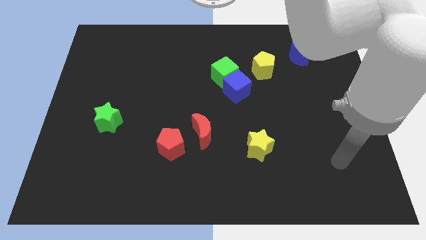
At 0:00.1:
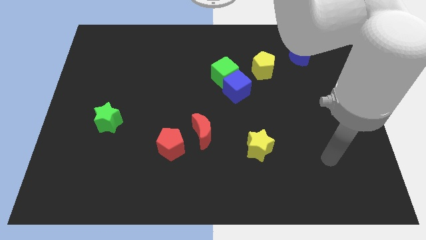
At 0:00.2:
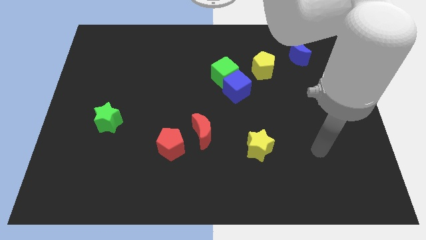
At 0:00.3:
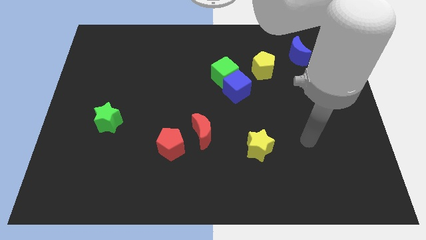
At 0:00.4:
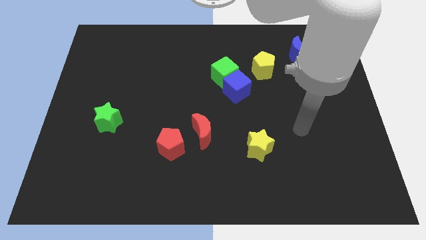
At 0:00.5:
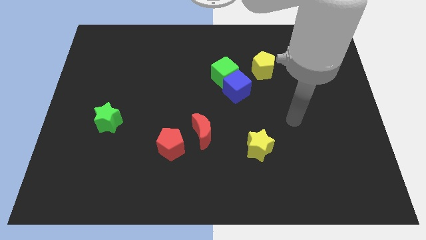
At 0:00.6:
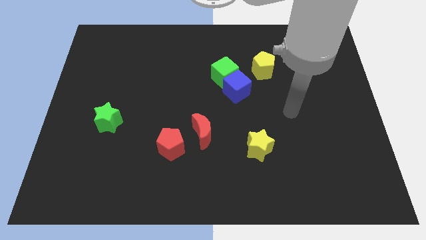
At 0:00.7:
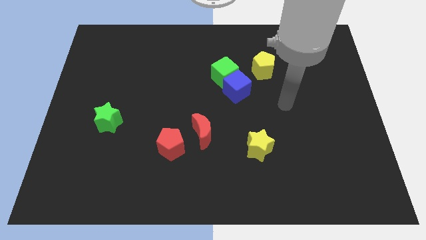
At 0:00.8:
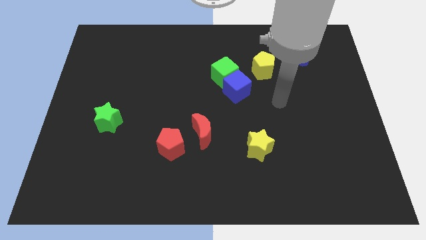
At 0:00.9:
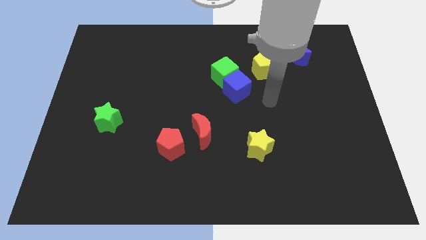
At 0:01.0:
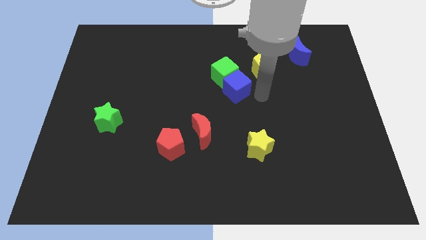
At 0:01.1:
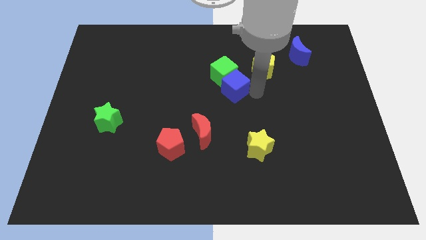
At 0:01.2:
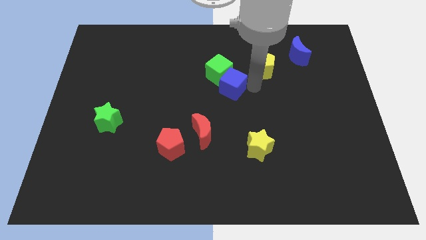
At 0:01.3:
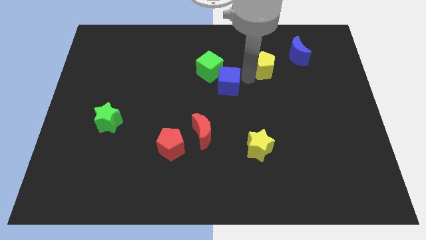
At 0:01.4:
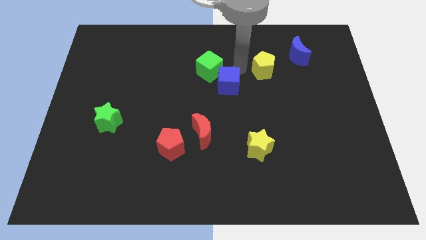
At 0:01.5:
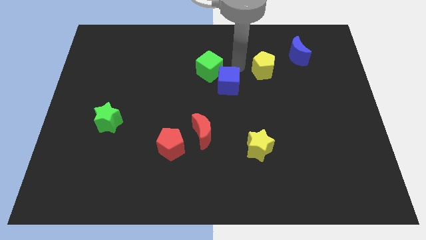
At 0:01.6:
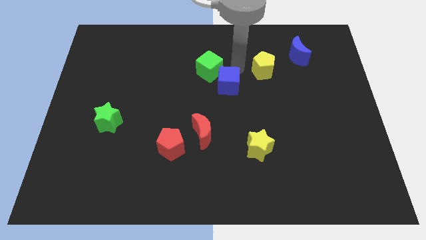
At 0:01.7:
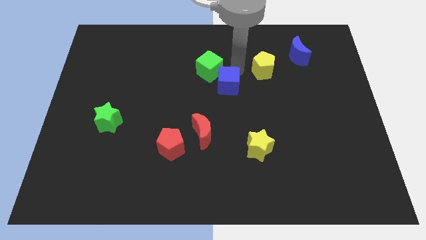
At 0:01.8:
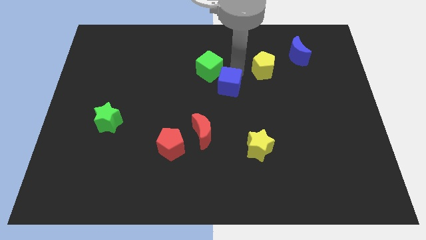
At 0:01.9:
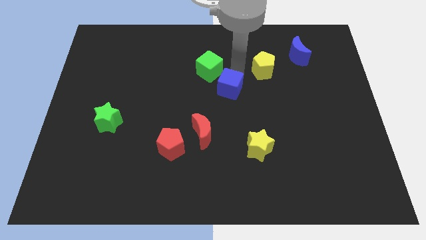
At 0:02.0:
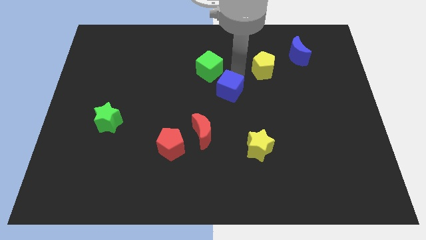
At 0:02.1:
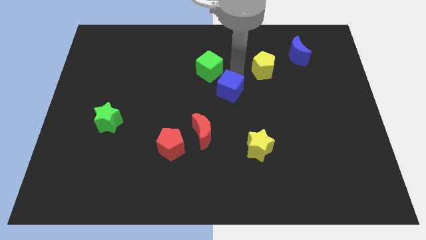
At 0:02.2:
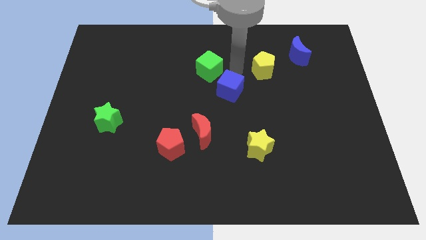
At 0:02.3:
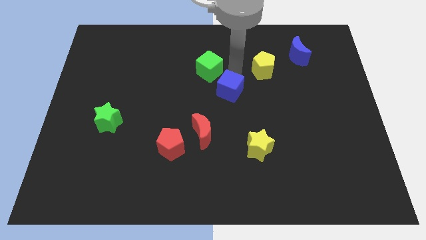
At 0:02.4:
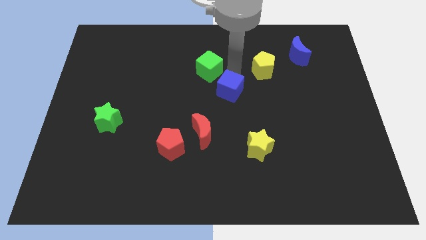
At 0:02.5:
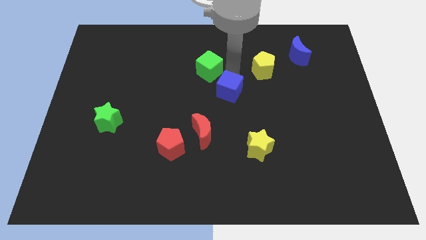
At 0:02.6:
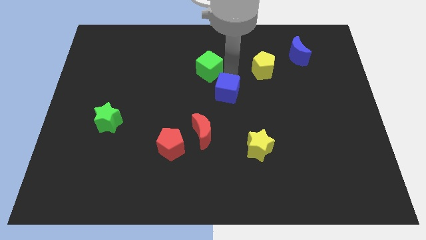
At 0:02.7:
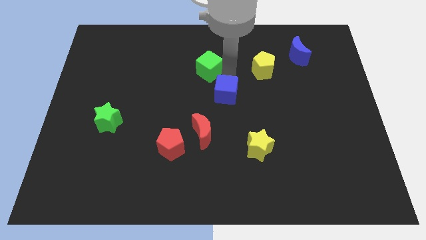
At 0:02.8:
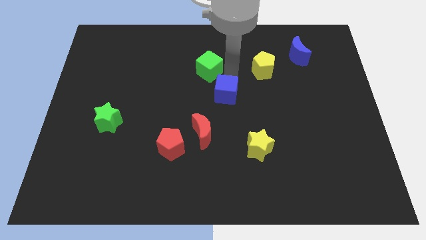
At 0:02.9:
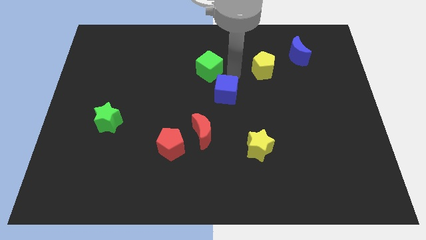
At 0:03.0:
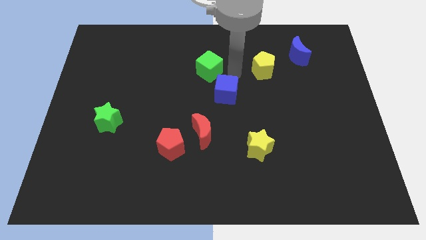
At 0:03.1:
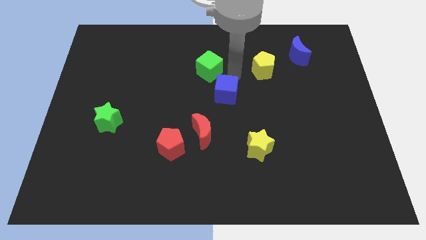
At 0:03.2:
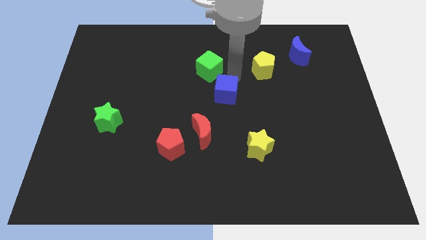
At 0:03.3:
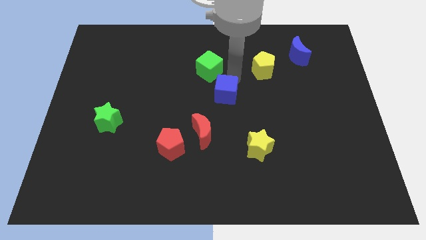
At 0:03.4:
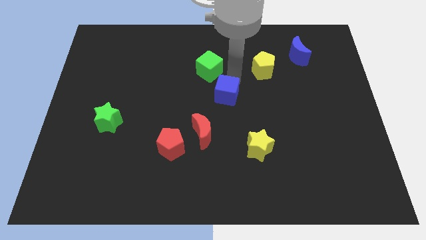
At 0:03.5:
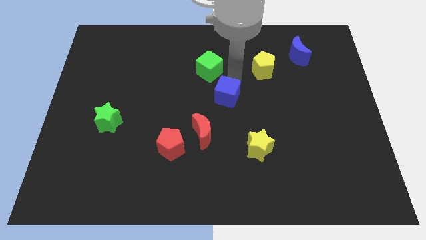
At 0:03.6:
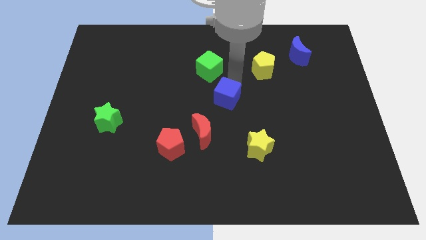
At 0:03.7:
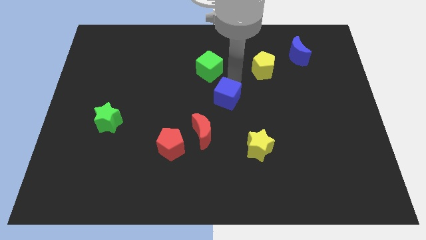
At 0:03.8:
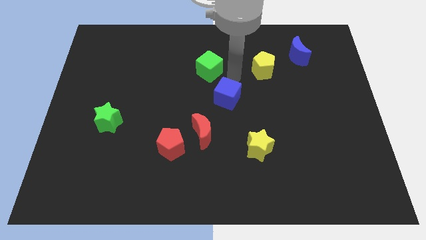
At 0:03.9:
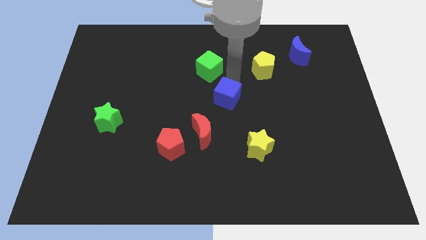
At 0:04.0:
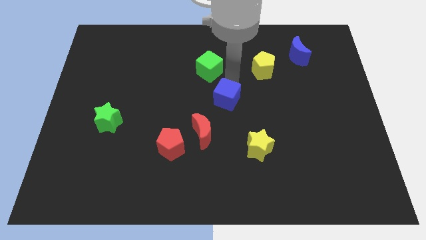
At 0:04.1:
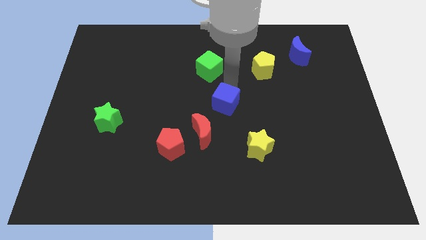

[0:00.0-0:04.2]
separate the blue cube from the green cube and yellow pentagon

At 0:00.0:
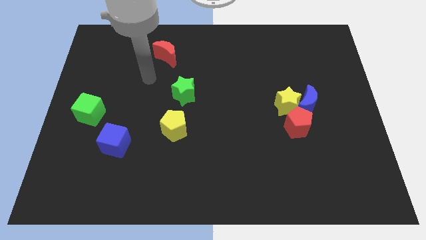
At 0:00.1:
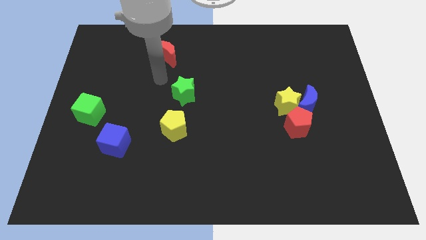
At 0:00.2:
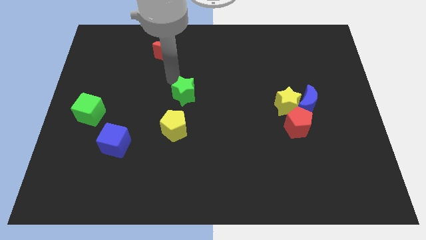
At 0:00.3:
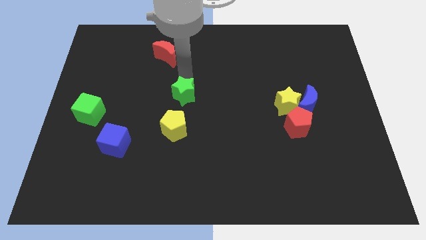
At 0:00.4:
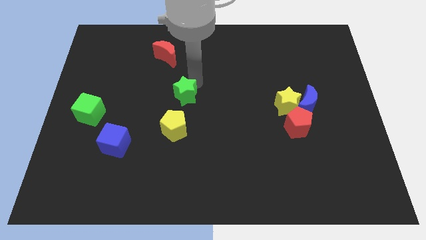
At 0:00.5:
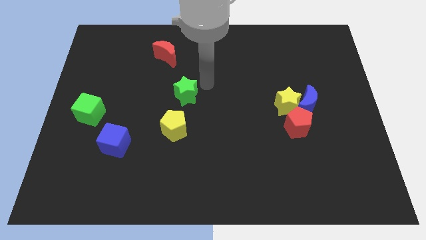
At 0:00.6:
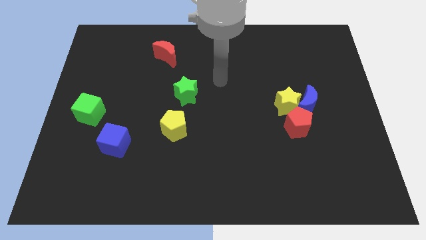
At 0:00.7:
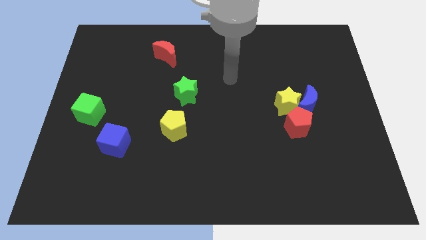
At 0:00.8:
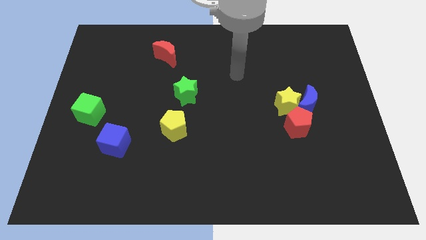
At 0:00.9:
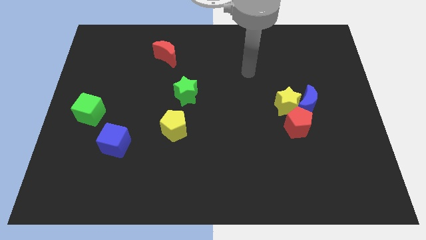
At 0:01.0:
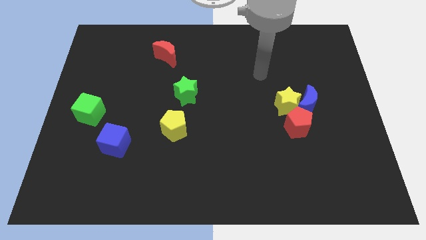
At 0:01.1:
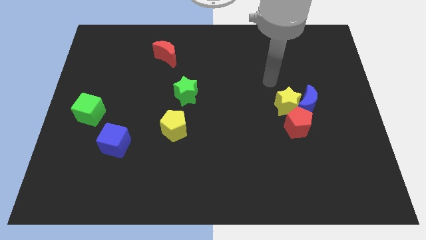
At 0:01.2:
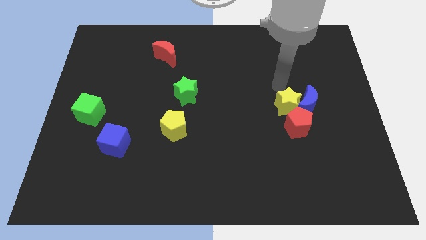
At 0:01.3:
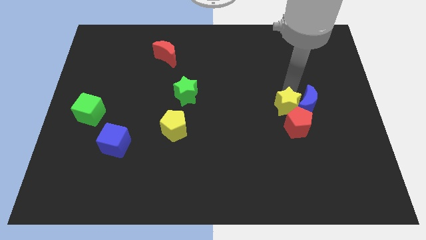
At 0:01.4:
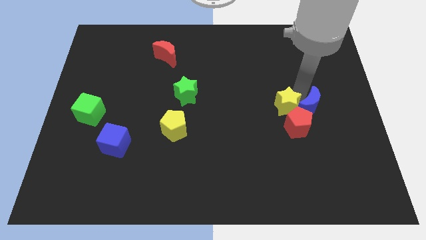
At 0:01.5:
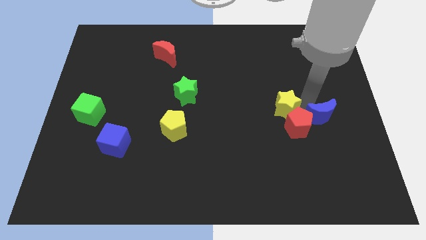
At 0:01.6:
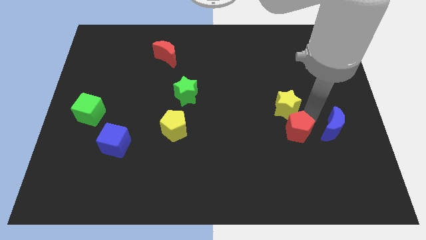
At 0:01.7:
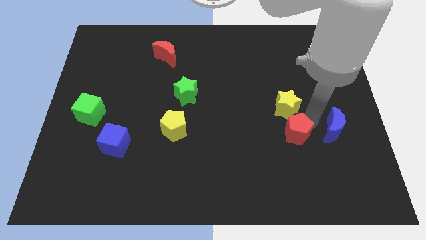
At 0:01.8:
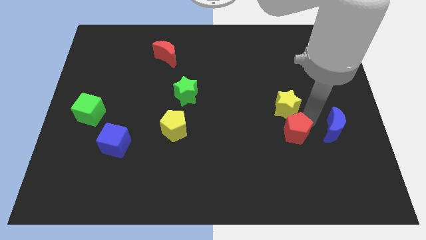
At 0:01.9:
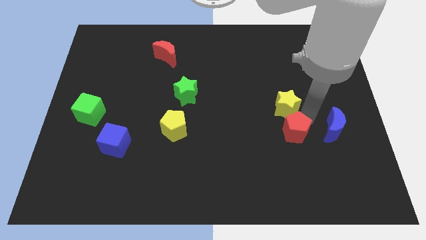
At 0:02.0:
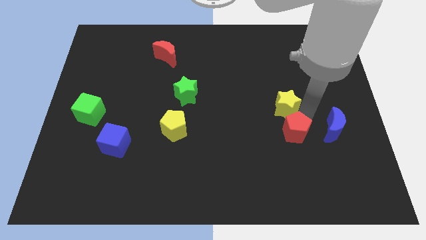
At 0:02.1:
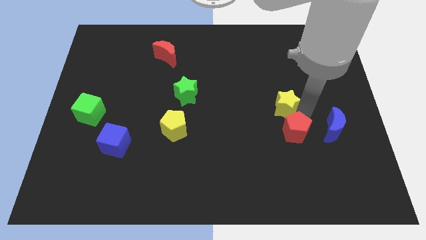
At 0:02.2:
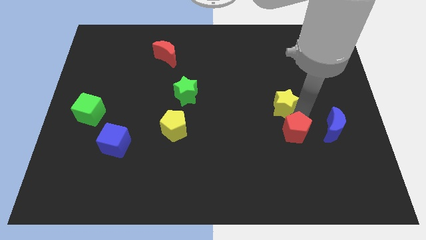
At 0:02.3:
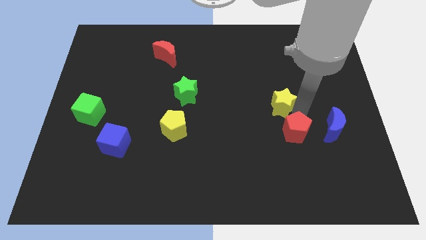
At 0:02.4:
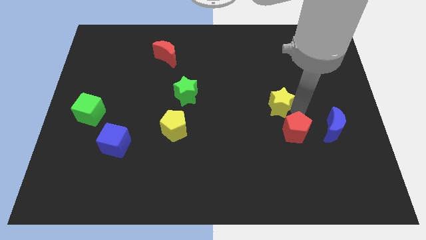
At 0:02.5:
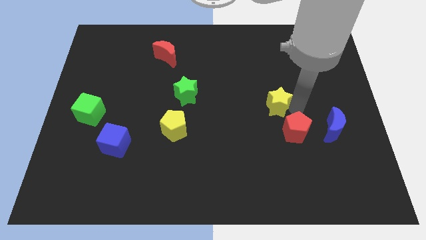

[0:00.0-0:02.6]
separate the yellow star from the blue moon and red pentagon

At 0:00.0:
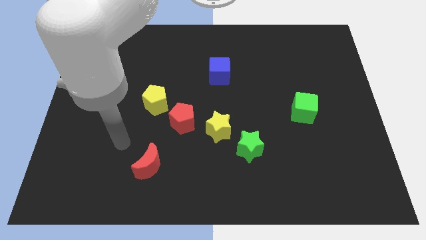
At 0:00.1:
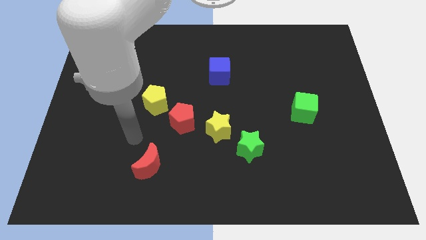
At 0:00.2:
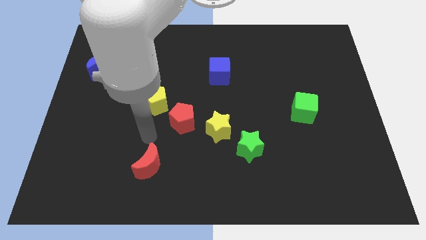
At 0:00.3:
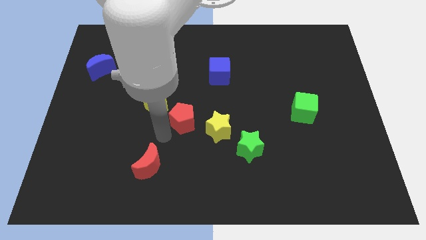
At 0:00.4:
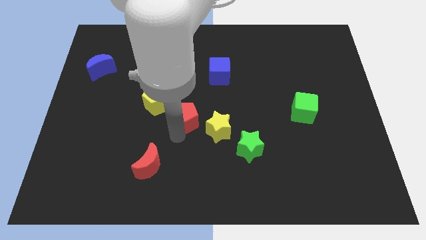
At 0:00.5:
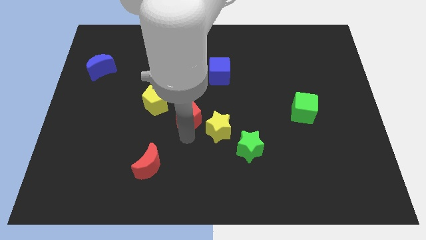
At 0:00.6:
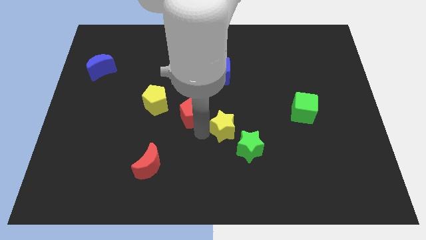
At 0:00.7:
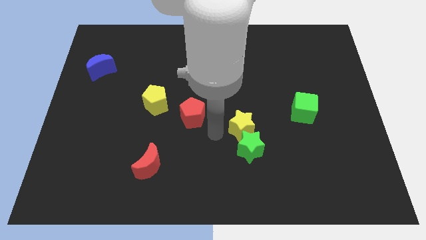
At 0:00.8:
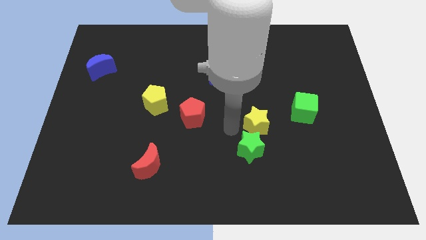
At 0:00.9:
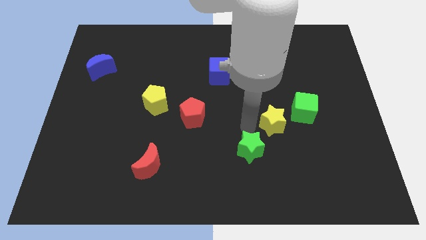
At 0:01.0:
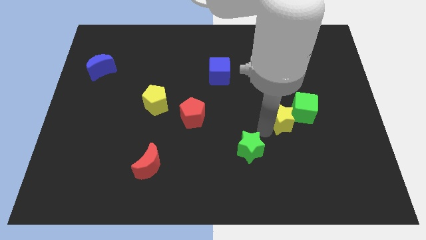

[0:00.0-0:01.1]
move the green star away from the yellow star

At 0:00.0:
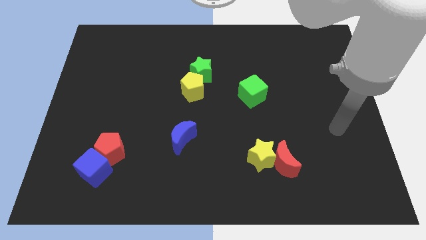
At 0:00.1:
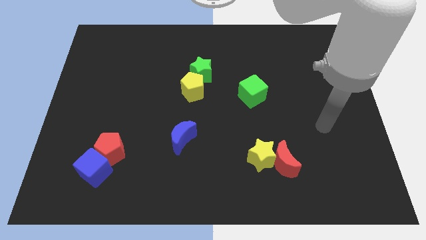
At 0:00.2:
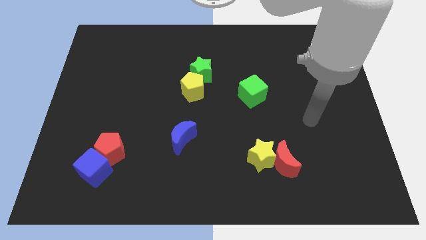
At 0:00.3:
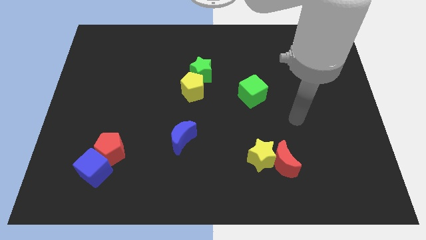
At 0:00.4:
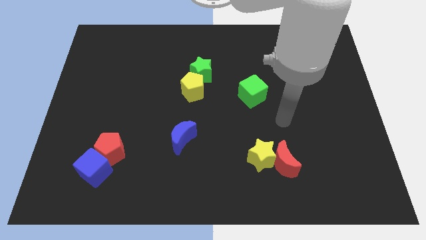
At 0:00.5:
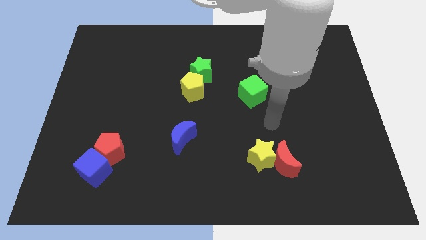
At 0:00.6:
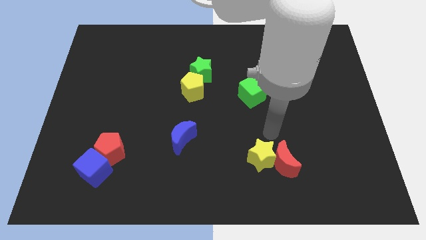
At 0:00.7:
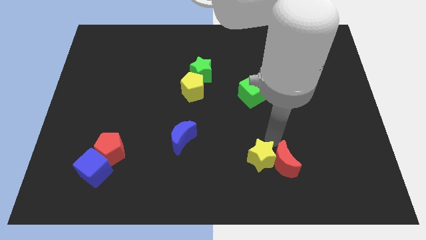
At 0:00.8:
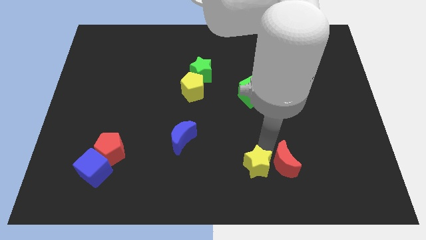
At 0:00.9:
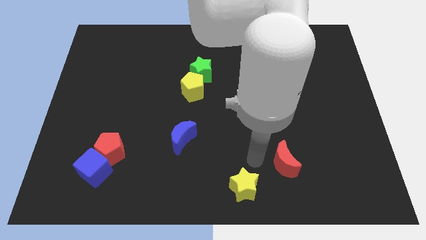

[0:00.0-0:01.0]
pull the red moon apart from the yellow star

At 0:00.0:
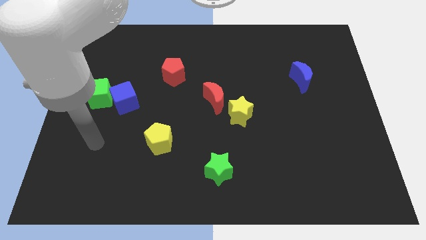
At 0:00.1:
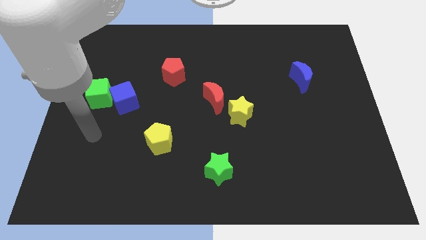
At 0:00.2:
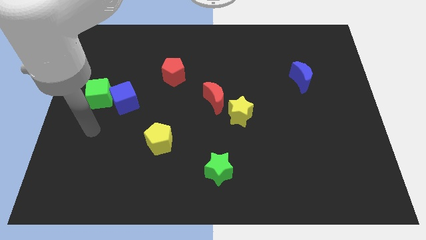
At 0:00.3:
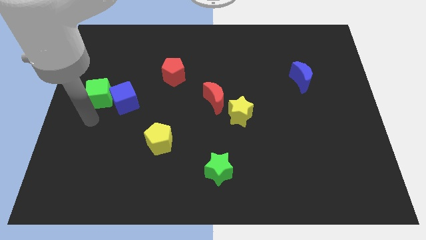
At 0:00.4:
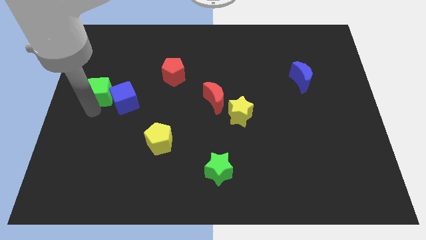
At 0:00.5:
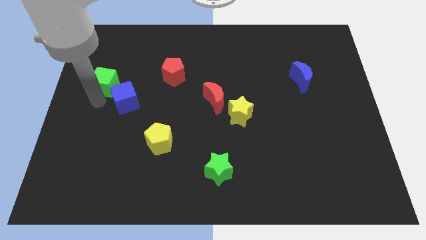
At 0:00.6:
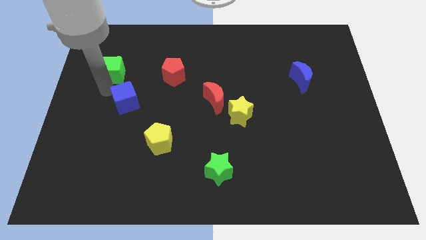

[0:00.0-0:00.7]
move the blue cube away from the green cube
